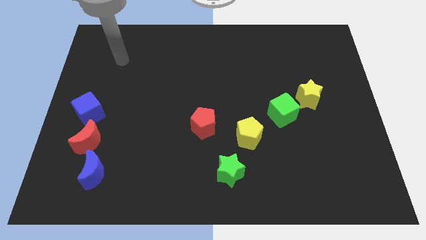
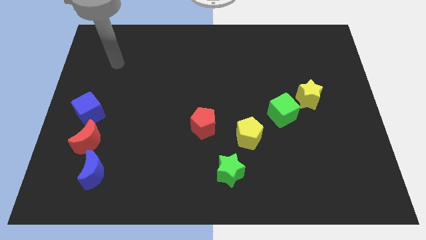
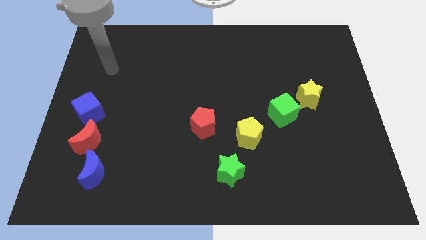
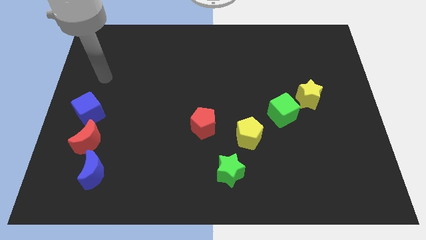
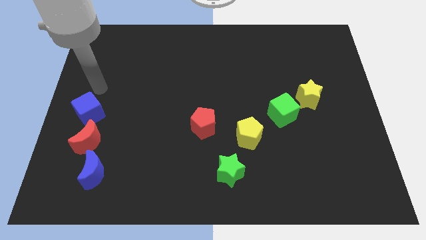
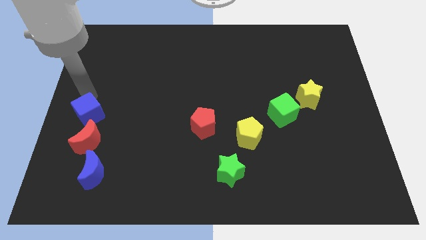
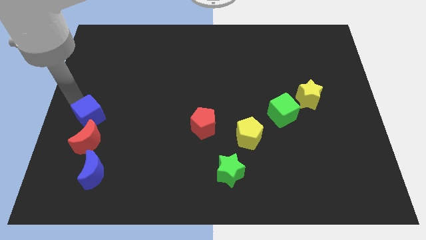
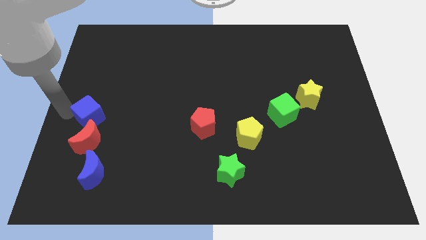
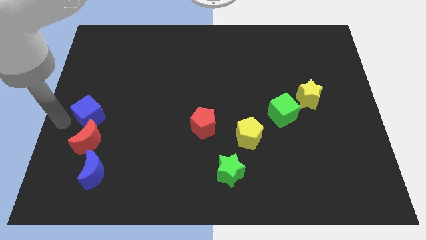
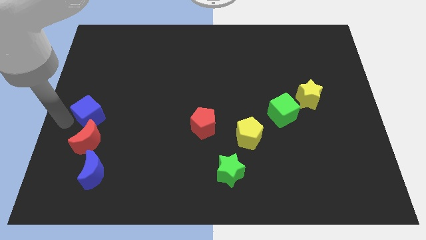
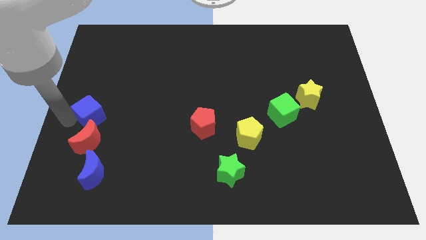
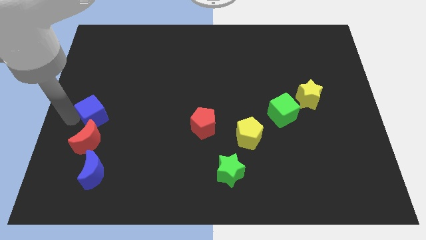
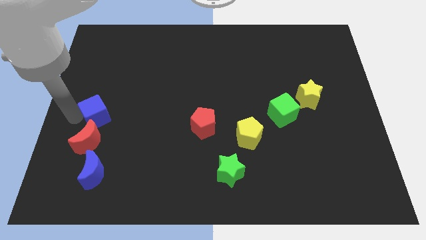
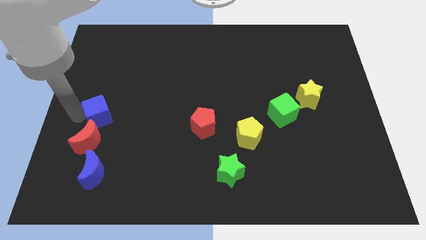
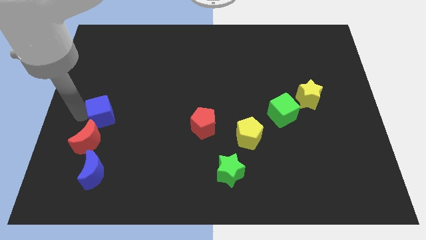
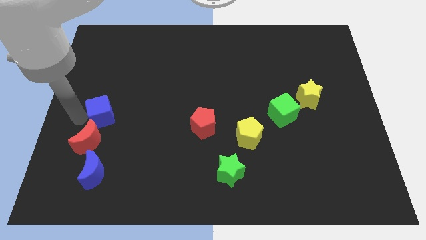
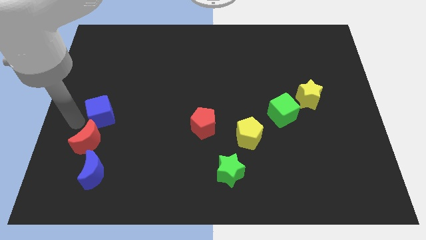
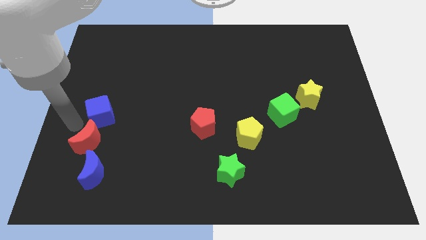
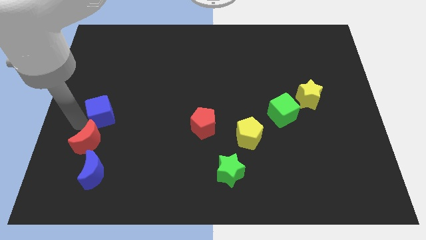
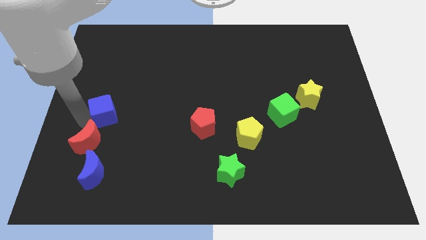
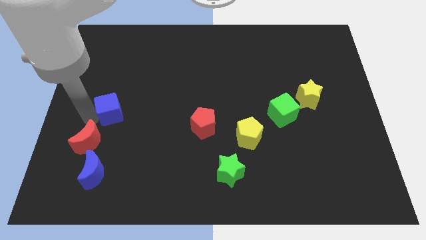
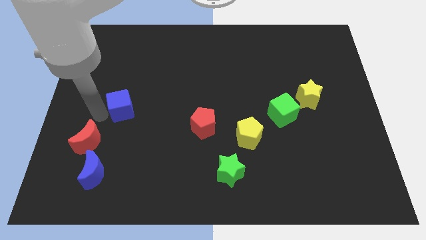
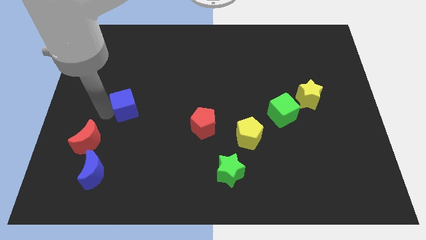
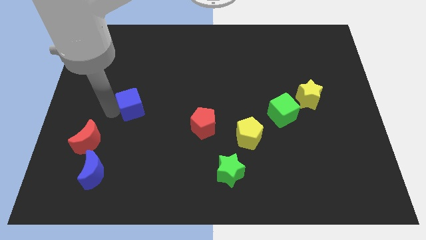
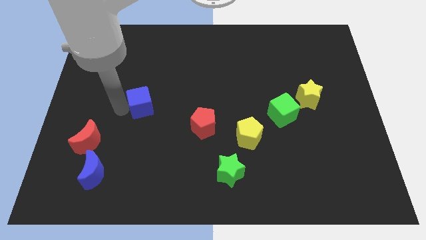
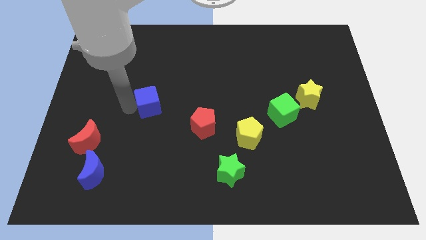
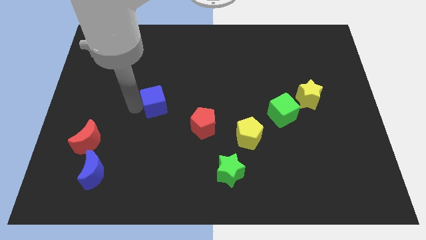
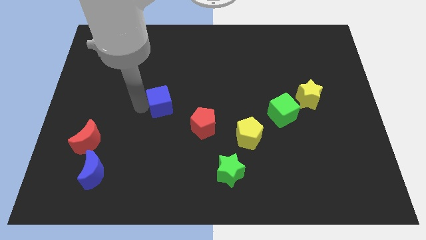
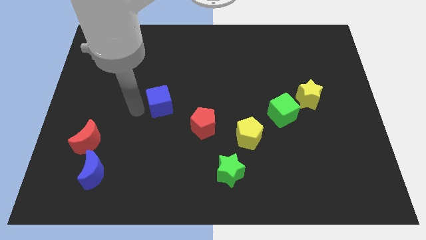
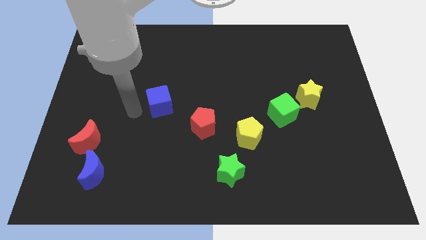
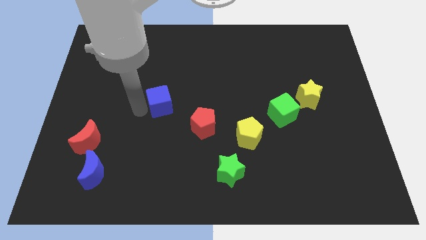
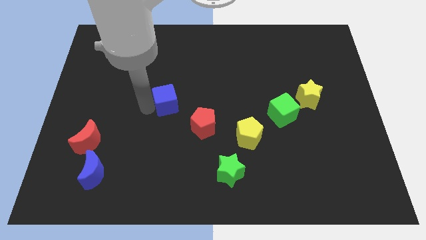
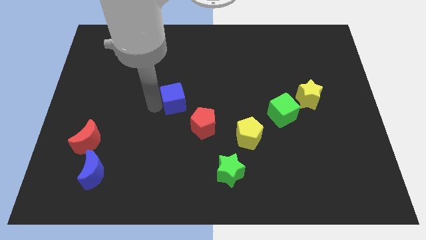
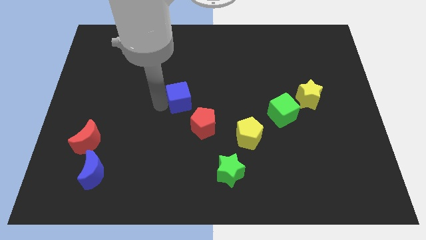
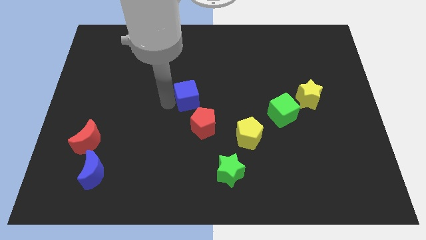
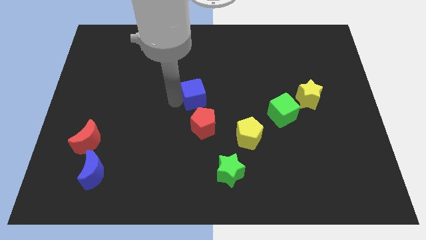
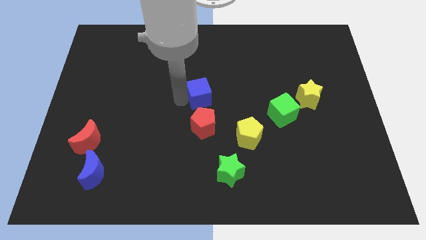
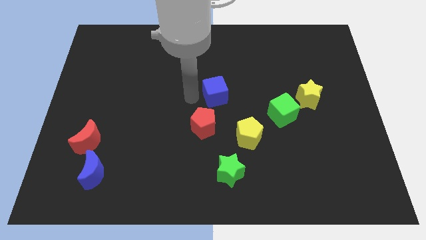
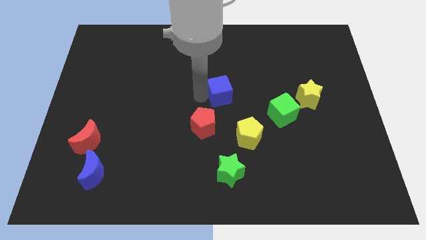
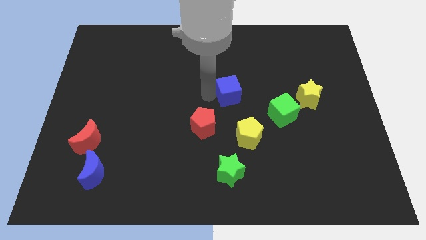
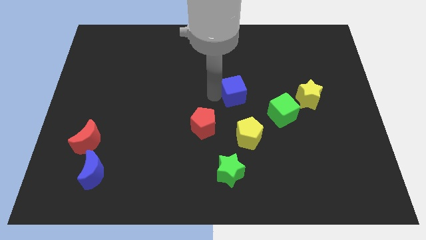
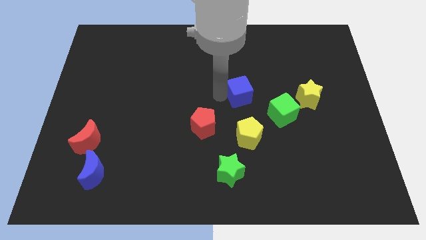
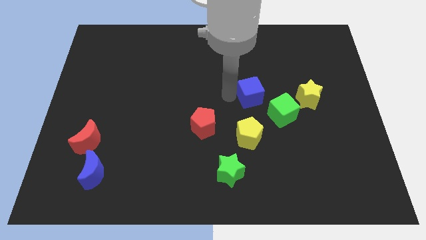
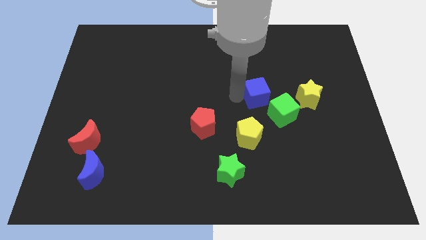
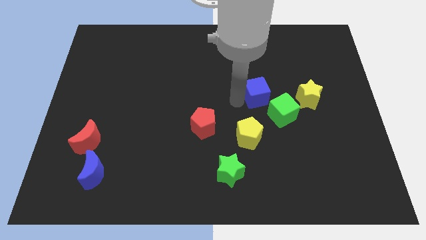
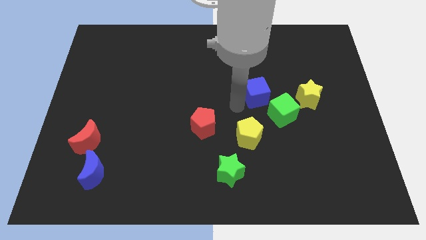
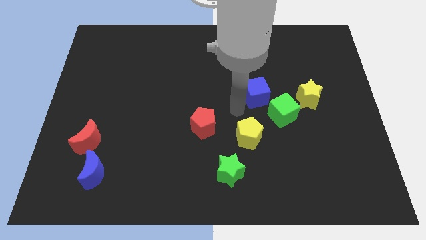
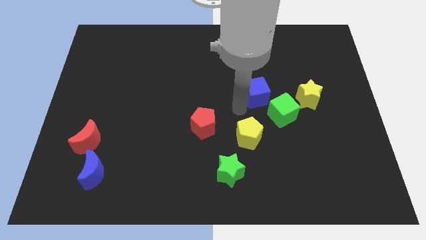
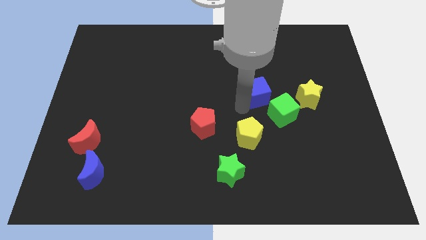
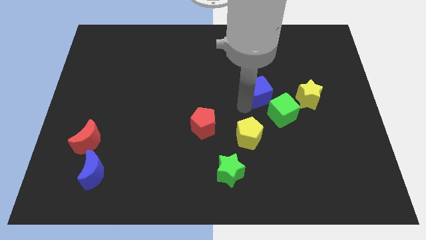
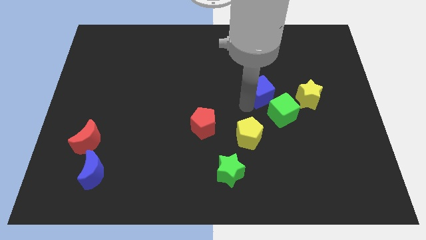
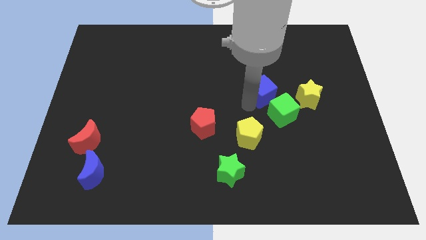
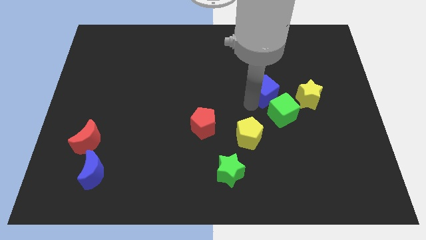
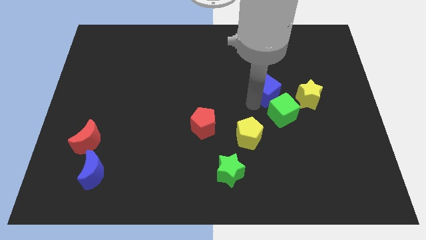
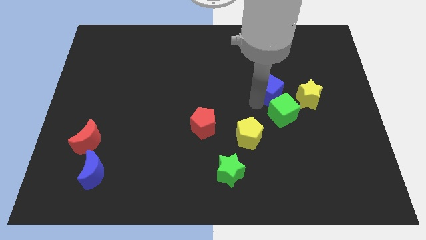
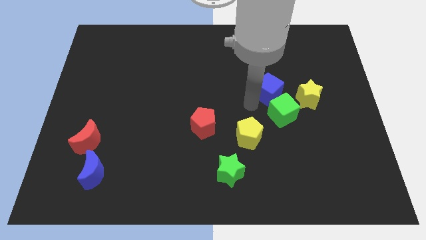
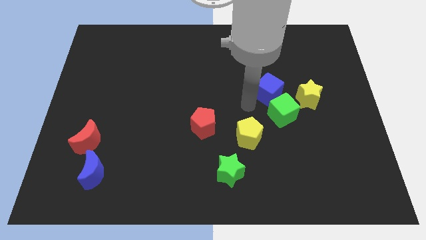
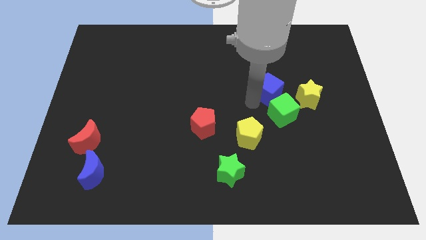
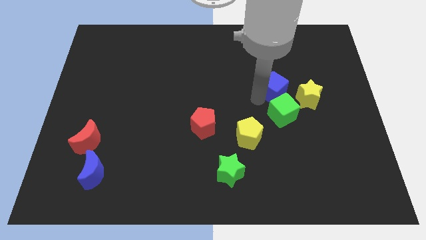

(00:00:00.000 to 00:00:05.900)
move the blue cube to the top left side of the yellow star
